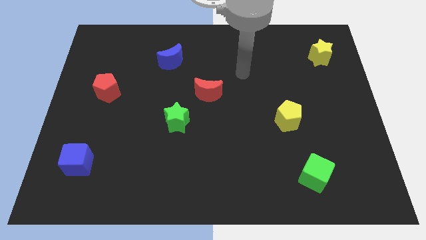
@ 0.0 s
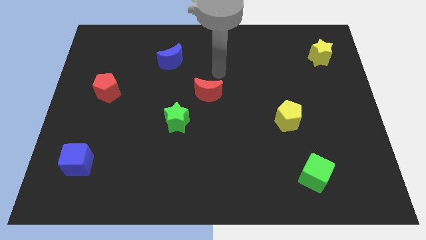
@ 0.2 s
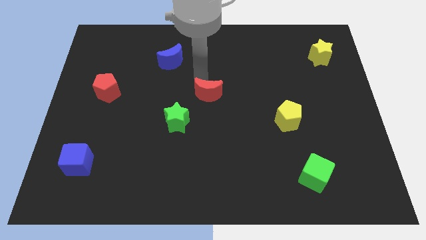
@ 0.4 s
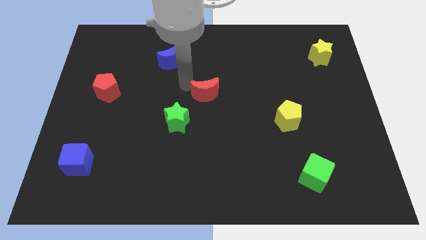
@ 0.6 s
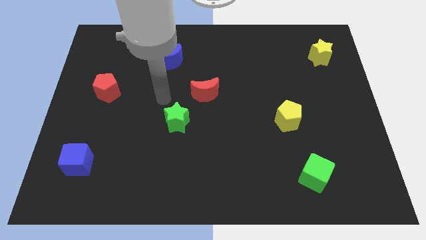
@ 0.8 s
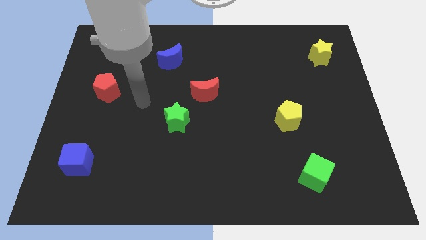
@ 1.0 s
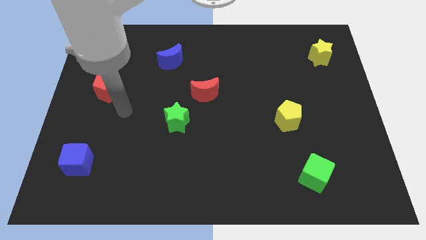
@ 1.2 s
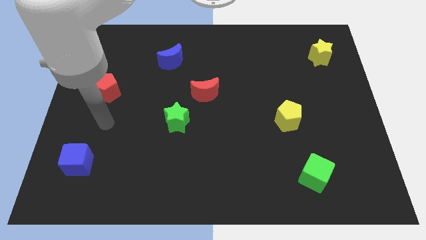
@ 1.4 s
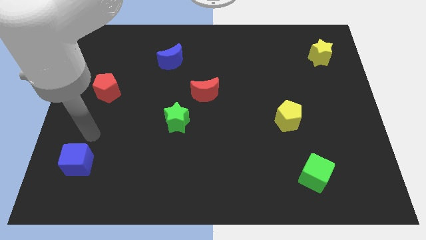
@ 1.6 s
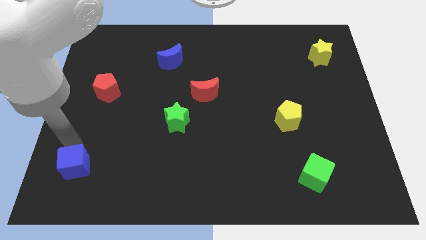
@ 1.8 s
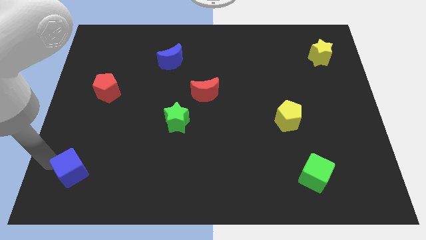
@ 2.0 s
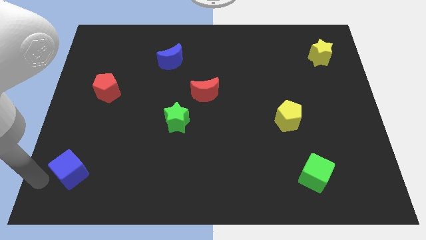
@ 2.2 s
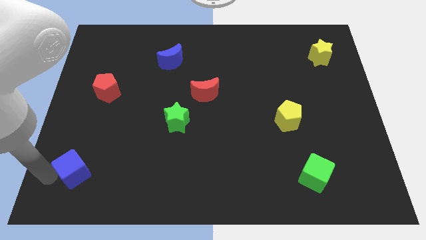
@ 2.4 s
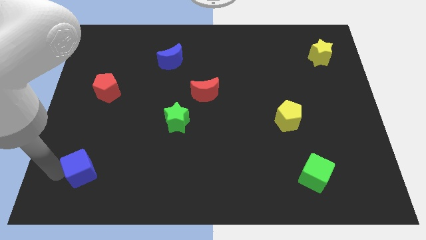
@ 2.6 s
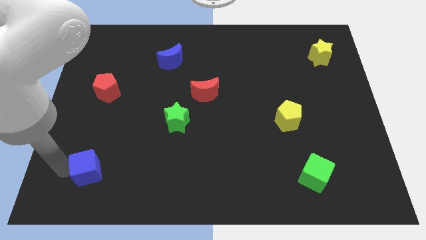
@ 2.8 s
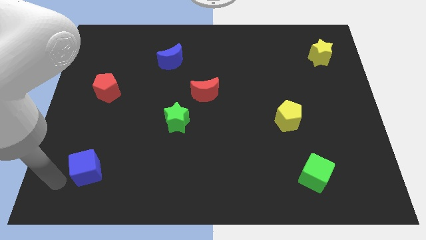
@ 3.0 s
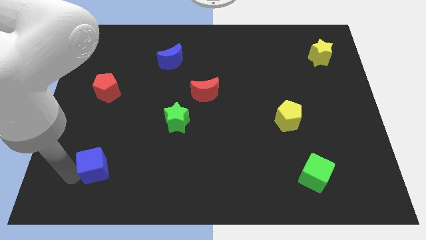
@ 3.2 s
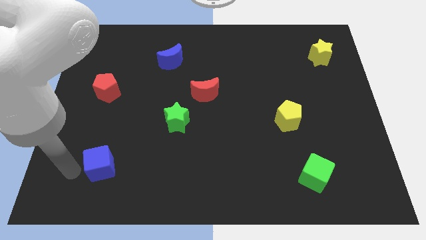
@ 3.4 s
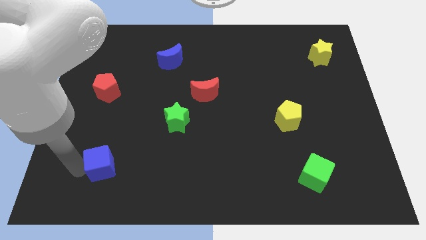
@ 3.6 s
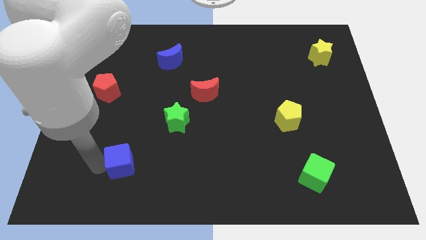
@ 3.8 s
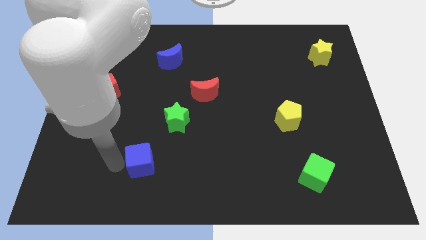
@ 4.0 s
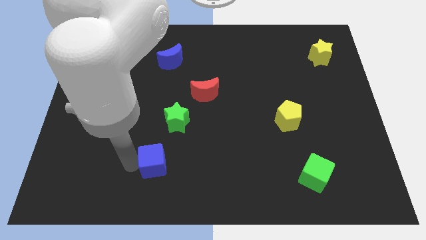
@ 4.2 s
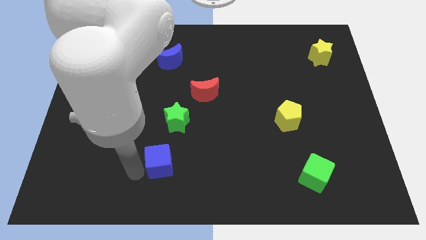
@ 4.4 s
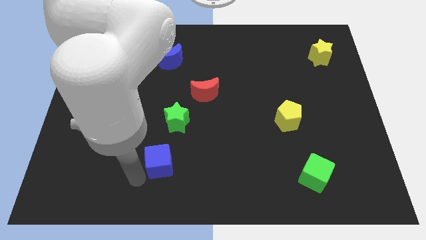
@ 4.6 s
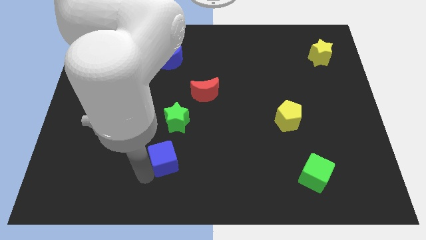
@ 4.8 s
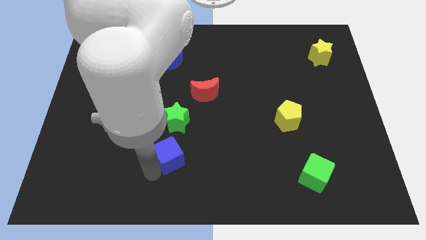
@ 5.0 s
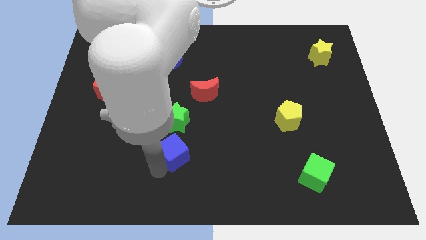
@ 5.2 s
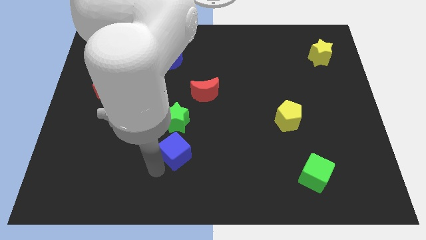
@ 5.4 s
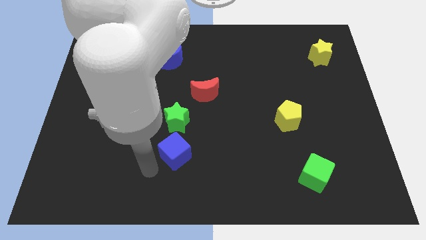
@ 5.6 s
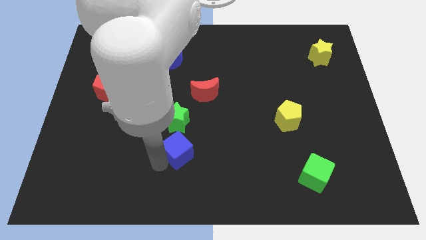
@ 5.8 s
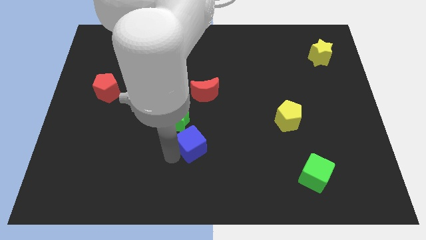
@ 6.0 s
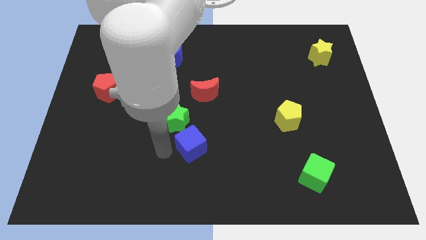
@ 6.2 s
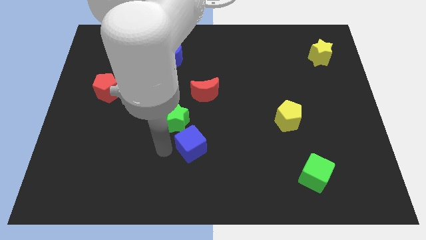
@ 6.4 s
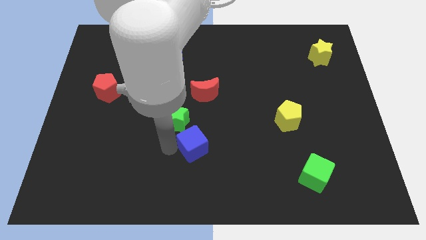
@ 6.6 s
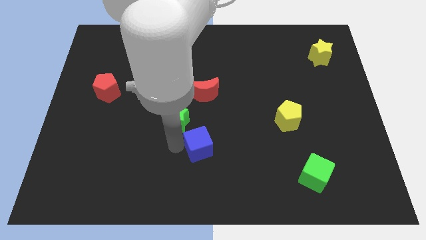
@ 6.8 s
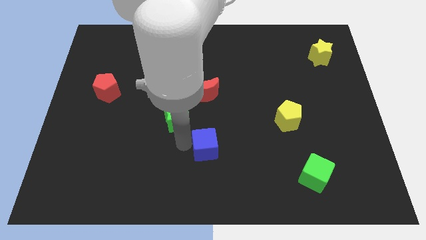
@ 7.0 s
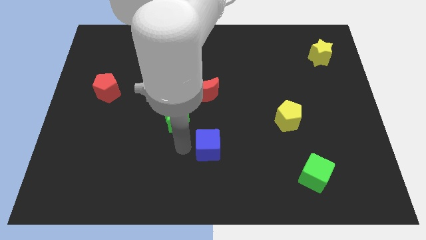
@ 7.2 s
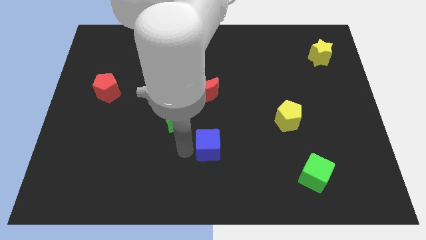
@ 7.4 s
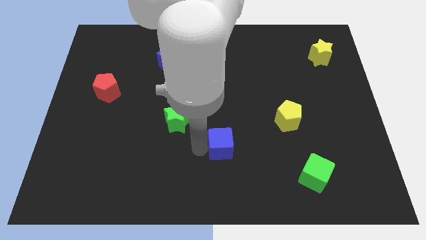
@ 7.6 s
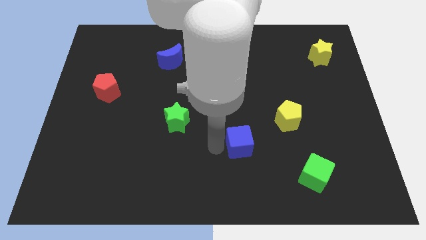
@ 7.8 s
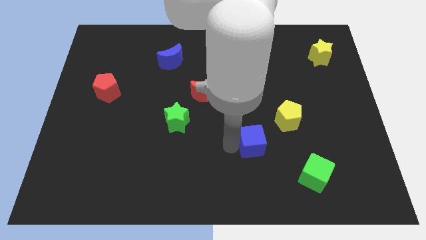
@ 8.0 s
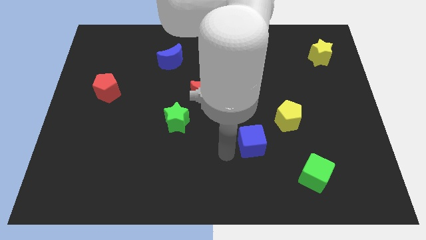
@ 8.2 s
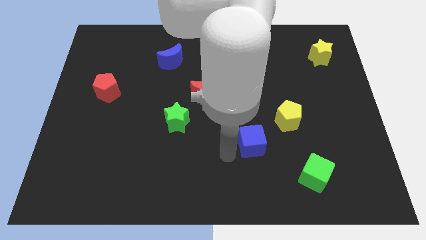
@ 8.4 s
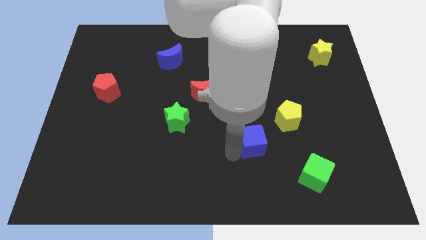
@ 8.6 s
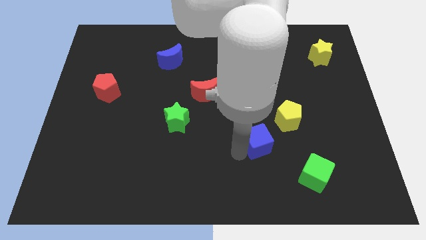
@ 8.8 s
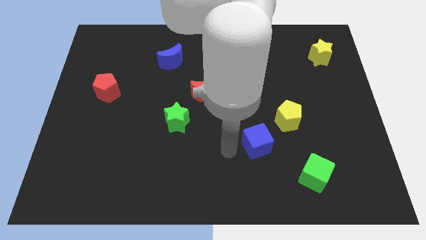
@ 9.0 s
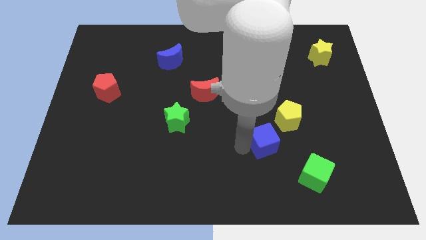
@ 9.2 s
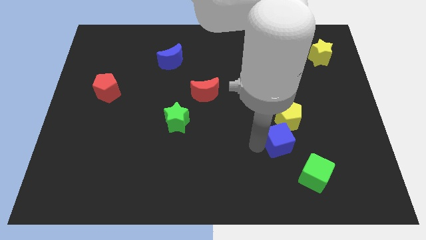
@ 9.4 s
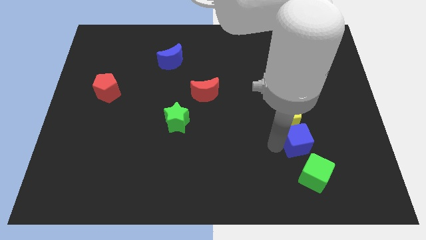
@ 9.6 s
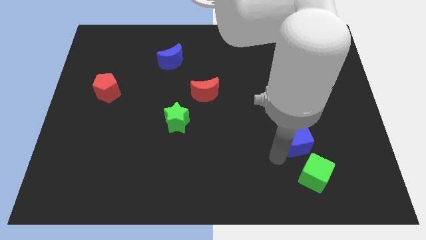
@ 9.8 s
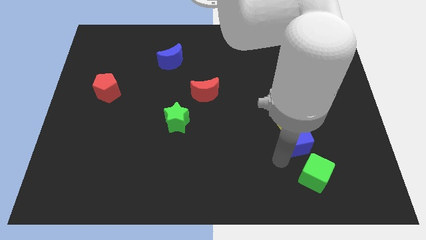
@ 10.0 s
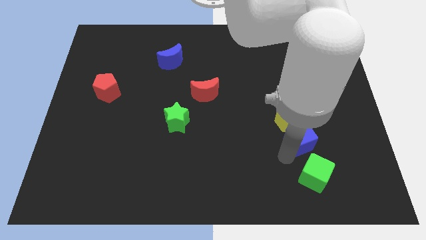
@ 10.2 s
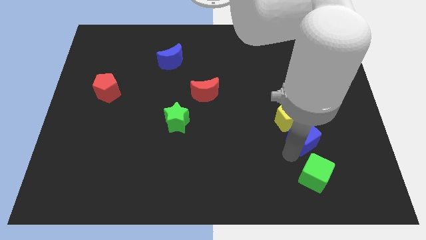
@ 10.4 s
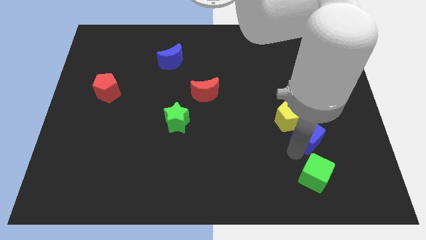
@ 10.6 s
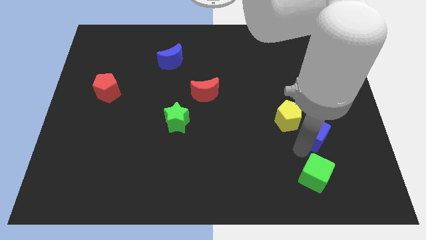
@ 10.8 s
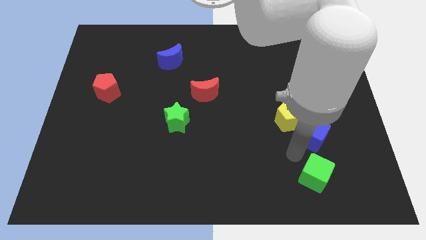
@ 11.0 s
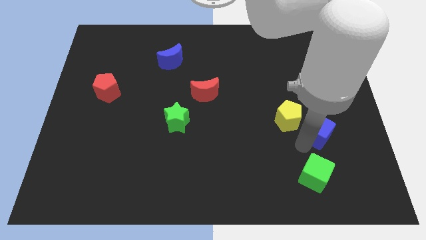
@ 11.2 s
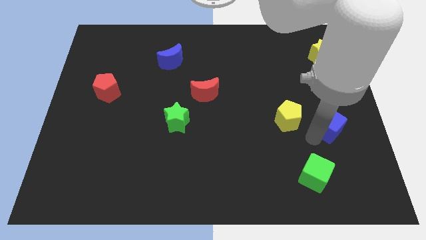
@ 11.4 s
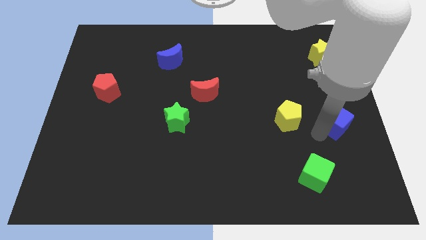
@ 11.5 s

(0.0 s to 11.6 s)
put the blue cube to the right side

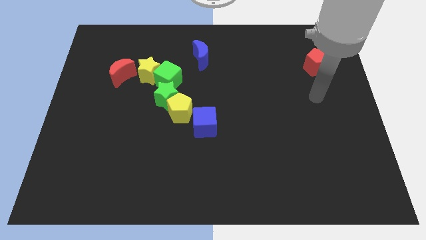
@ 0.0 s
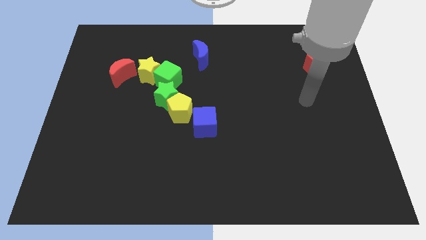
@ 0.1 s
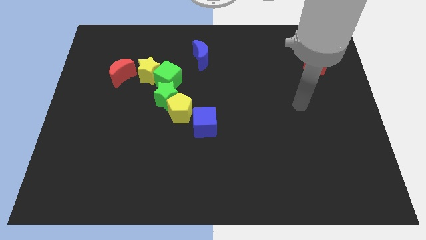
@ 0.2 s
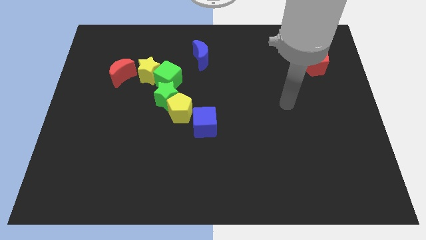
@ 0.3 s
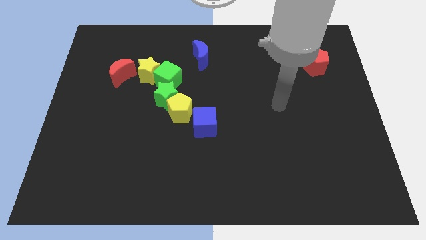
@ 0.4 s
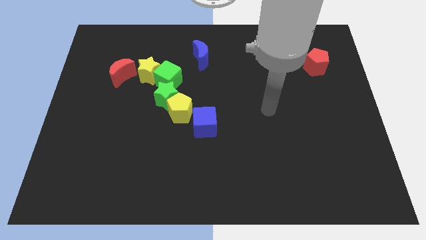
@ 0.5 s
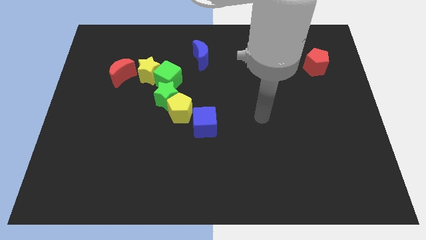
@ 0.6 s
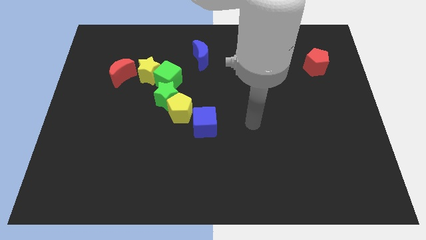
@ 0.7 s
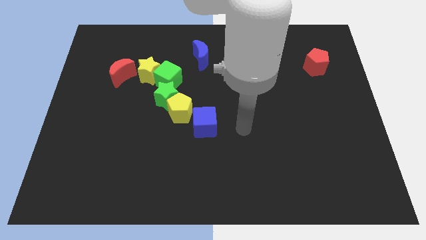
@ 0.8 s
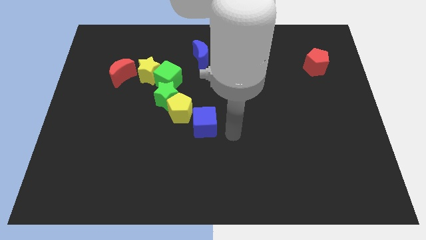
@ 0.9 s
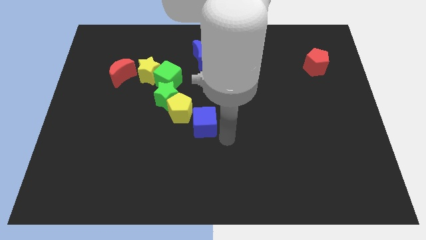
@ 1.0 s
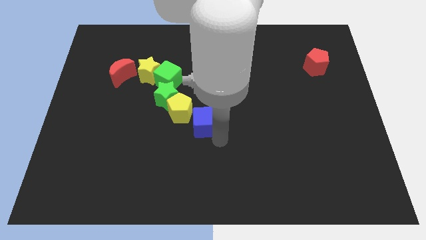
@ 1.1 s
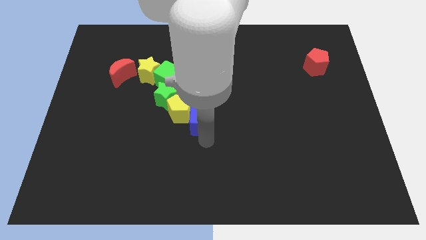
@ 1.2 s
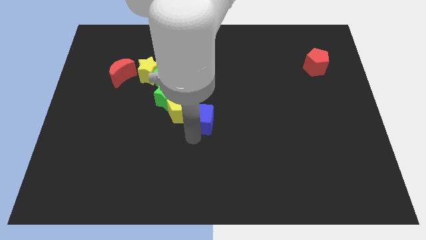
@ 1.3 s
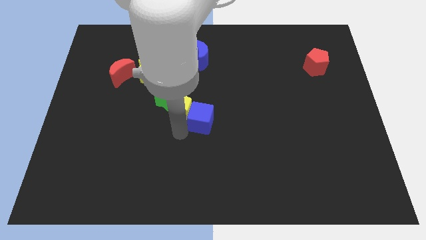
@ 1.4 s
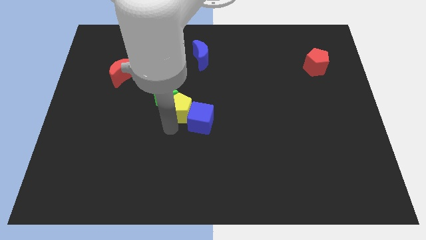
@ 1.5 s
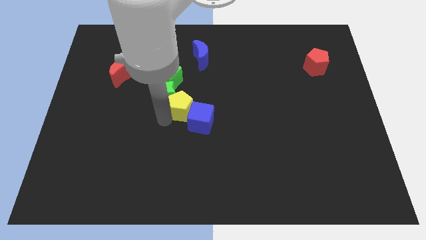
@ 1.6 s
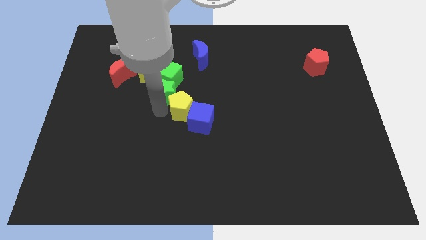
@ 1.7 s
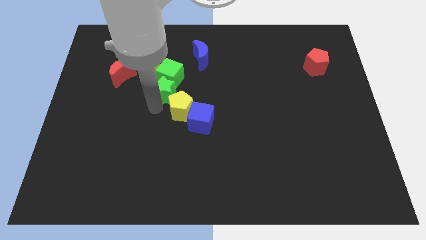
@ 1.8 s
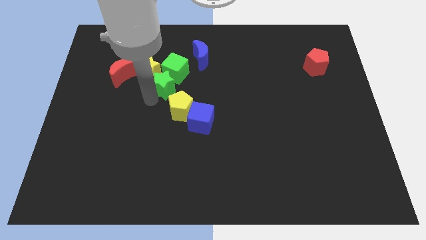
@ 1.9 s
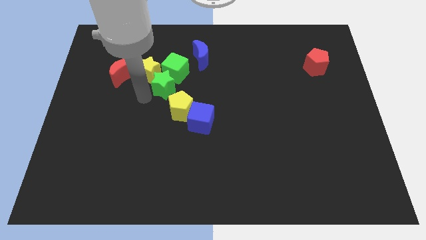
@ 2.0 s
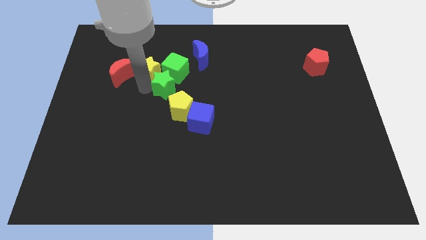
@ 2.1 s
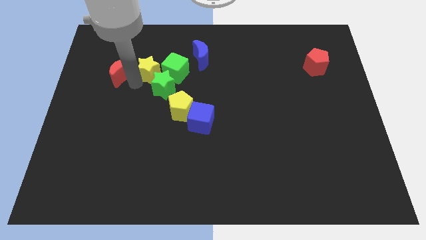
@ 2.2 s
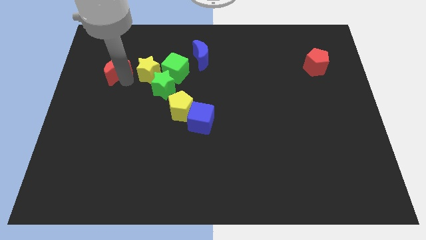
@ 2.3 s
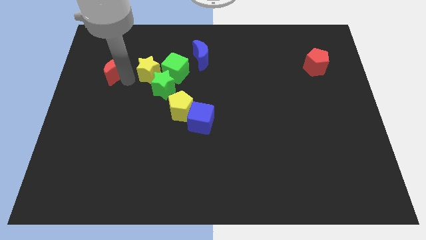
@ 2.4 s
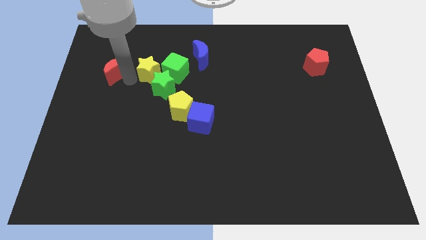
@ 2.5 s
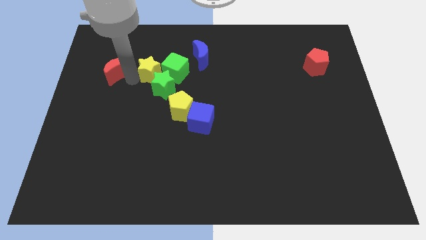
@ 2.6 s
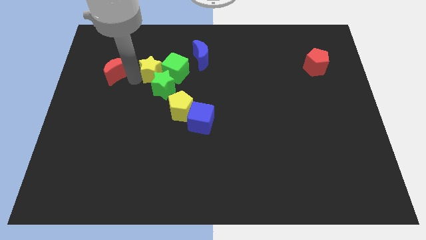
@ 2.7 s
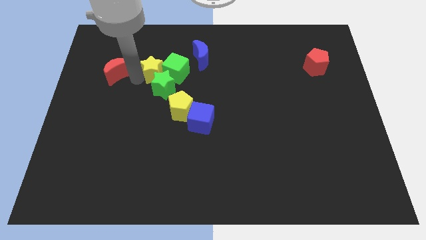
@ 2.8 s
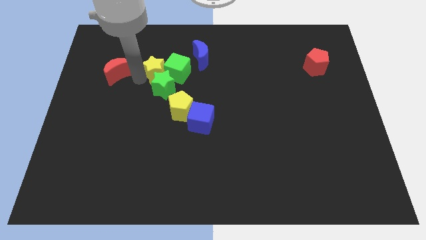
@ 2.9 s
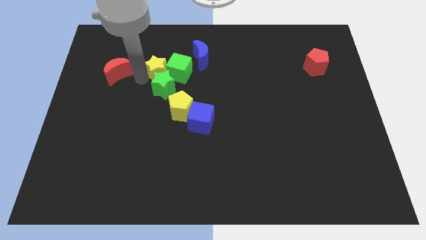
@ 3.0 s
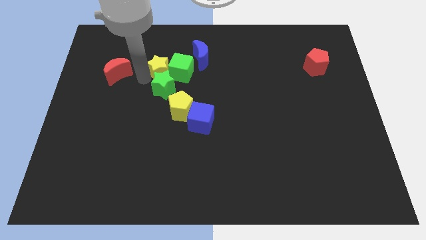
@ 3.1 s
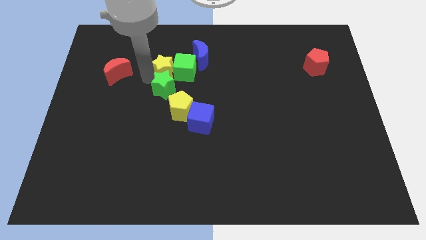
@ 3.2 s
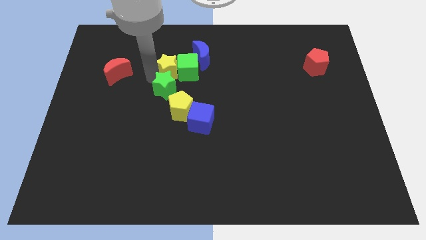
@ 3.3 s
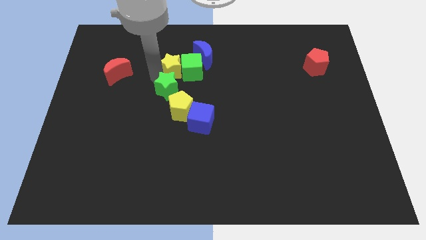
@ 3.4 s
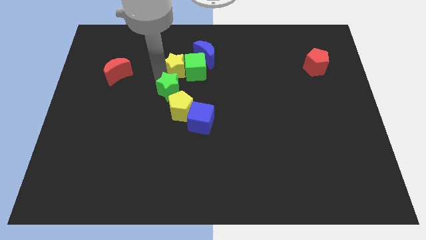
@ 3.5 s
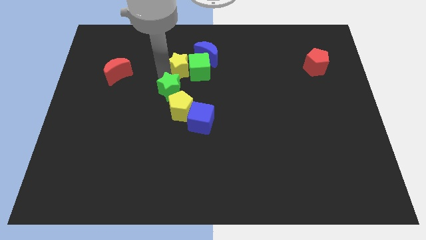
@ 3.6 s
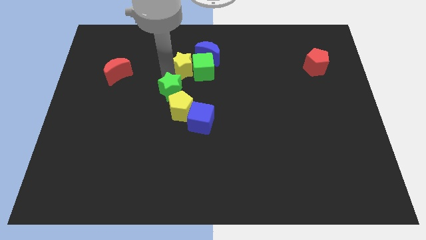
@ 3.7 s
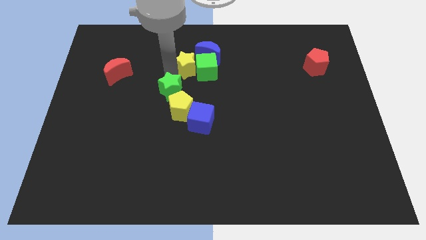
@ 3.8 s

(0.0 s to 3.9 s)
move the yellow star to the middle
